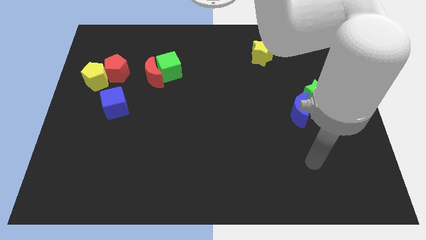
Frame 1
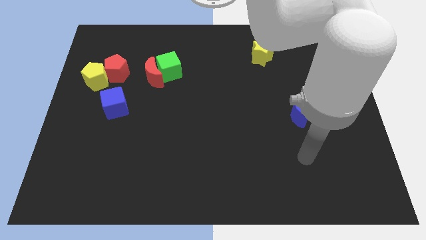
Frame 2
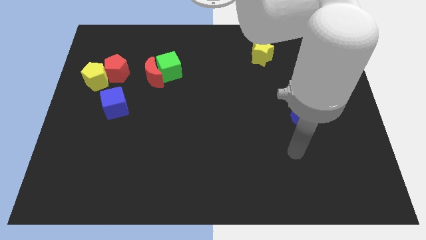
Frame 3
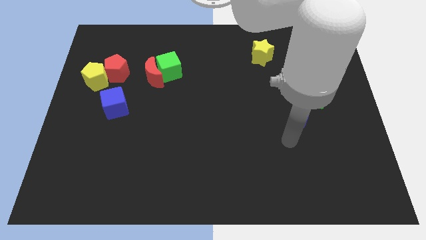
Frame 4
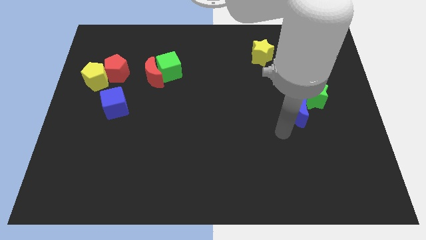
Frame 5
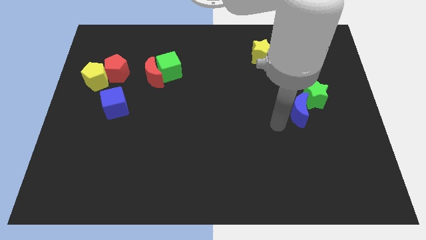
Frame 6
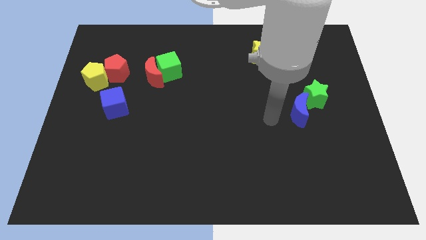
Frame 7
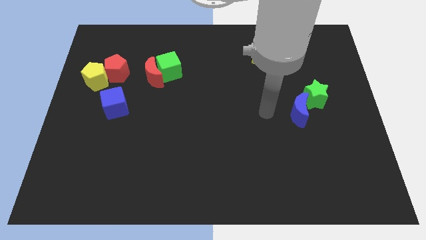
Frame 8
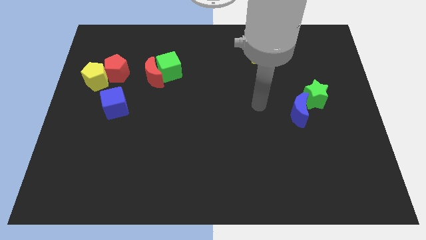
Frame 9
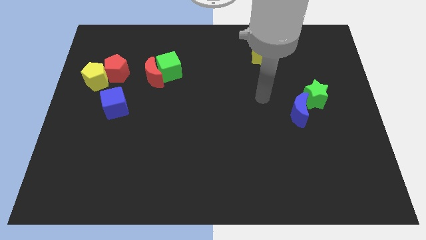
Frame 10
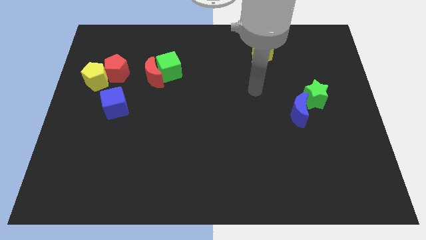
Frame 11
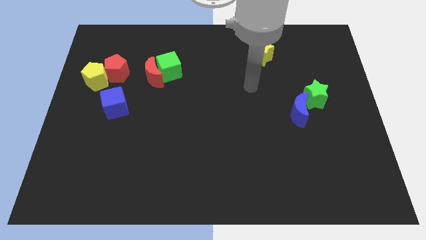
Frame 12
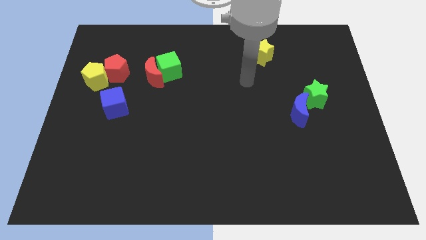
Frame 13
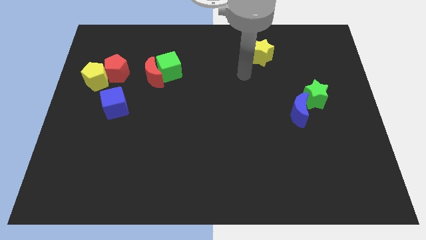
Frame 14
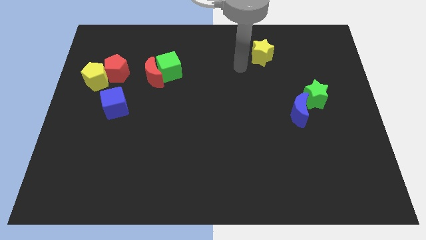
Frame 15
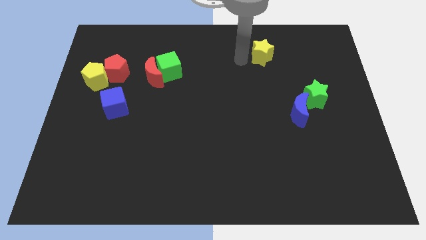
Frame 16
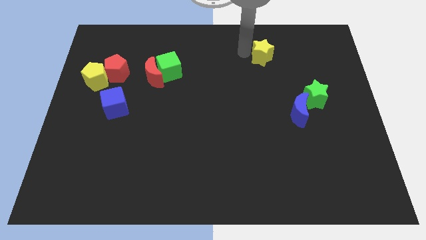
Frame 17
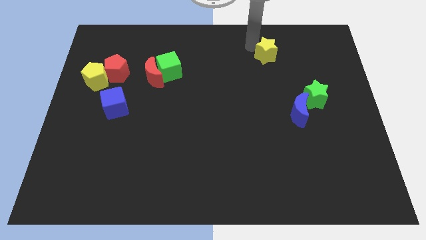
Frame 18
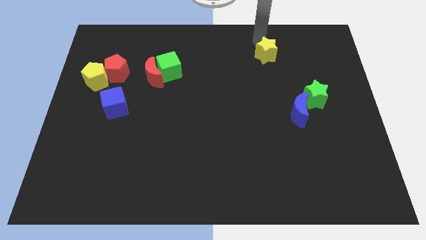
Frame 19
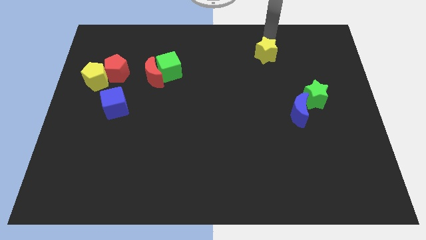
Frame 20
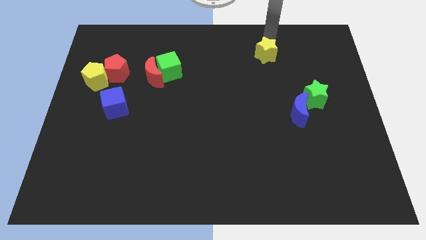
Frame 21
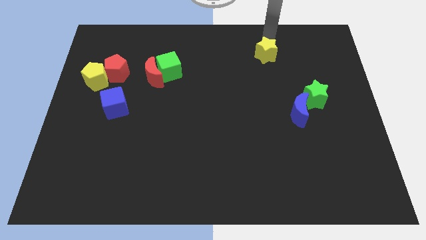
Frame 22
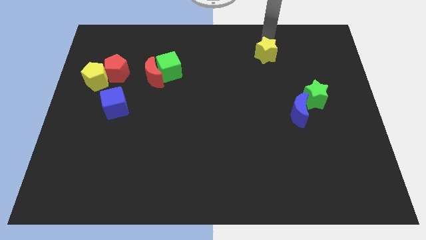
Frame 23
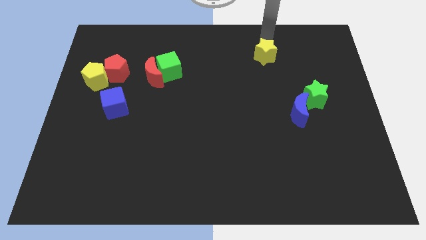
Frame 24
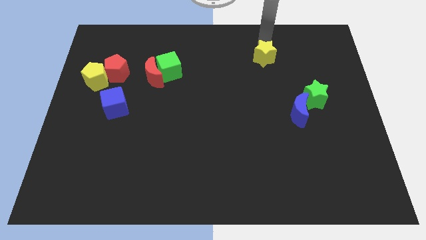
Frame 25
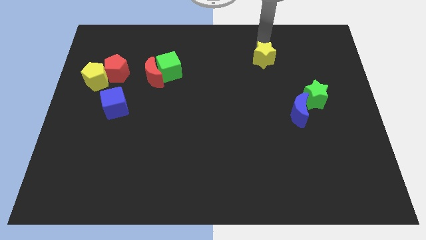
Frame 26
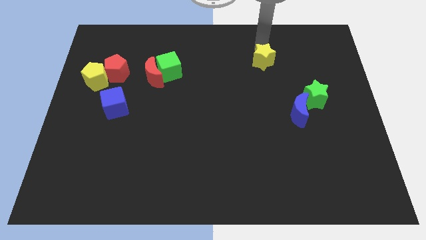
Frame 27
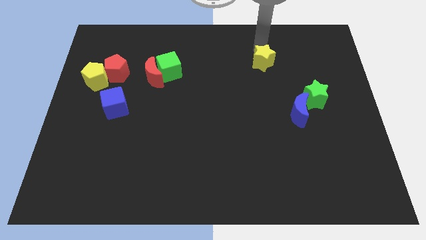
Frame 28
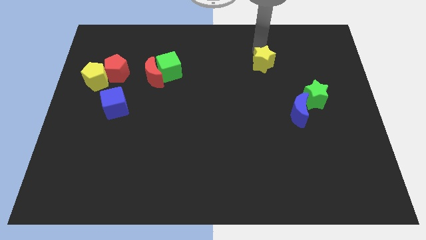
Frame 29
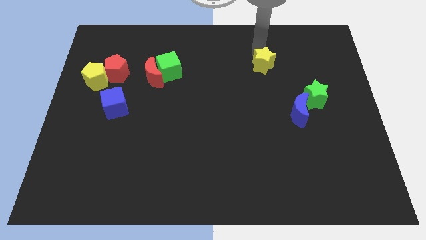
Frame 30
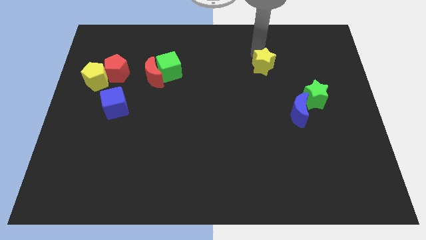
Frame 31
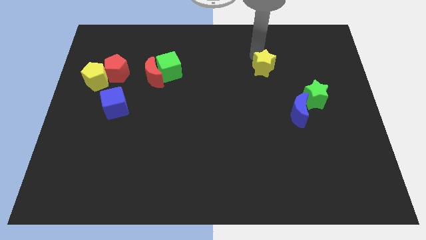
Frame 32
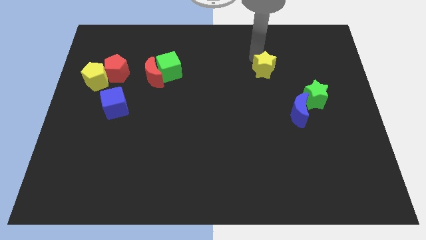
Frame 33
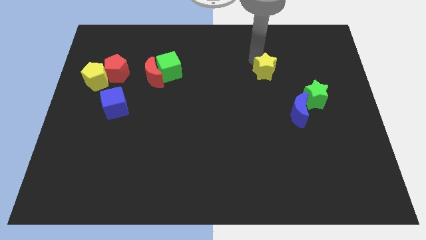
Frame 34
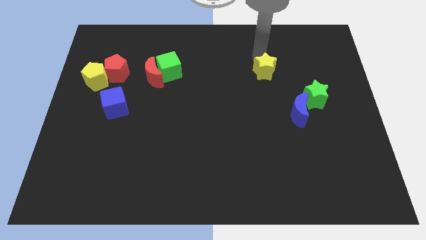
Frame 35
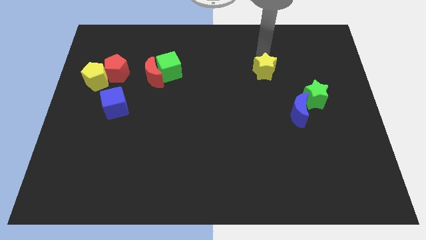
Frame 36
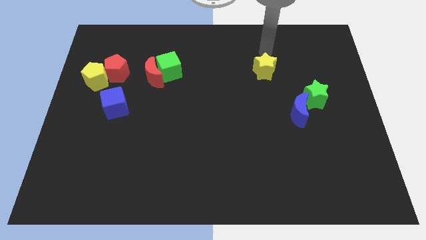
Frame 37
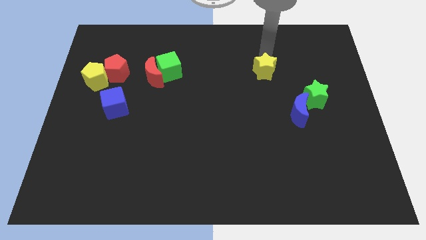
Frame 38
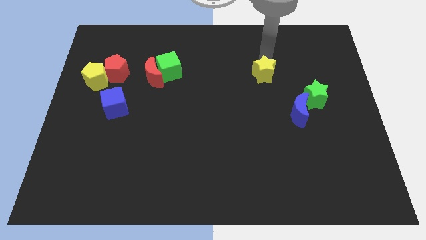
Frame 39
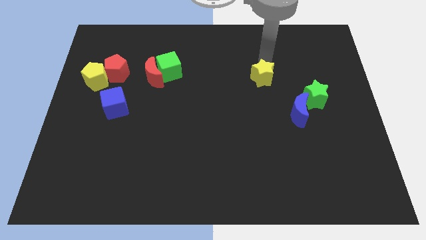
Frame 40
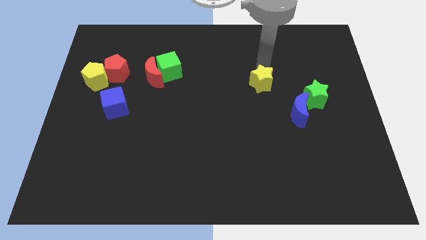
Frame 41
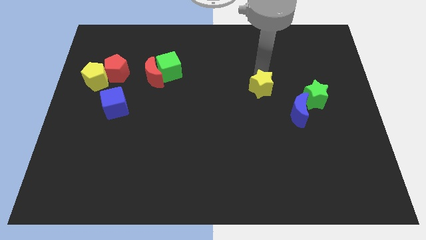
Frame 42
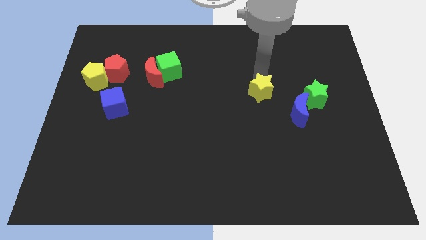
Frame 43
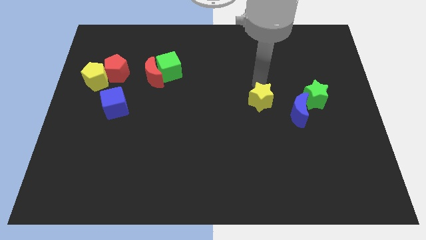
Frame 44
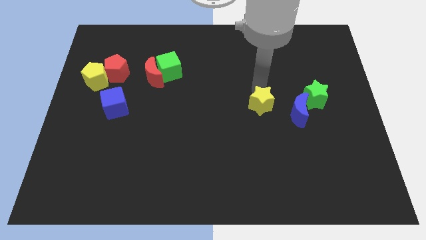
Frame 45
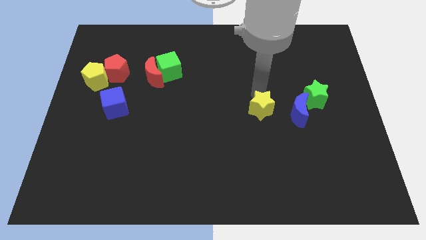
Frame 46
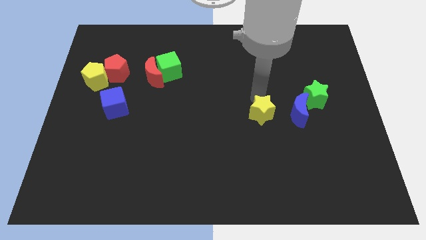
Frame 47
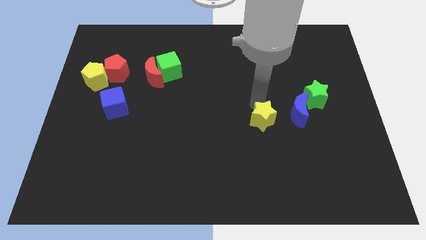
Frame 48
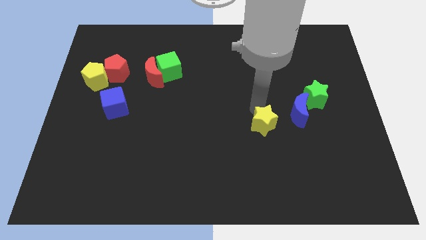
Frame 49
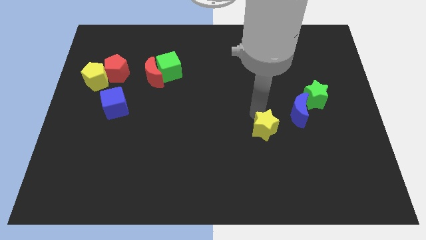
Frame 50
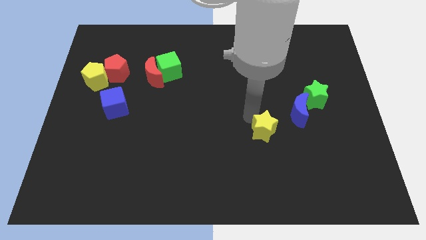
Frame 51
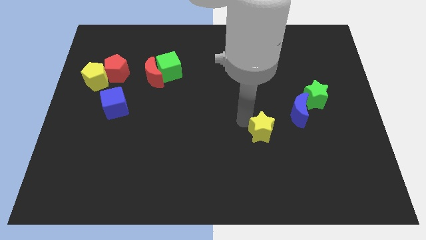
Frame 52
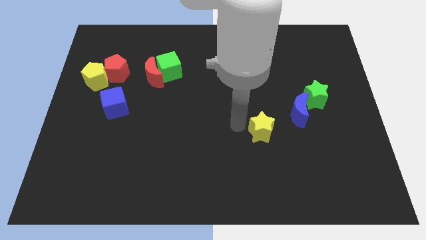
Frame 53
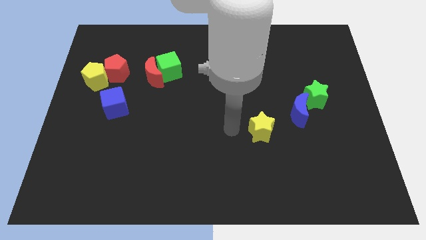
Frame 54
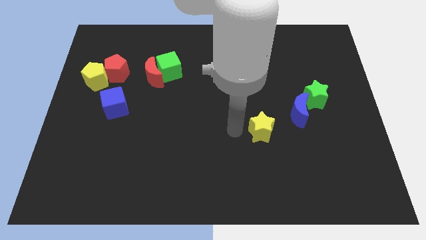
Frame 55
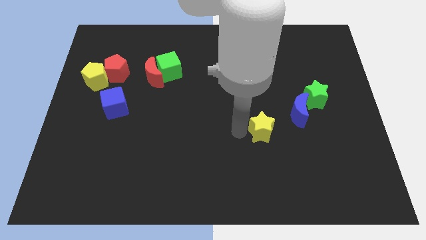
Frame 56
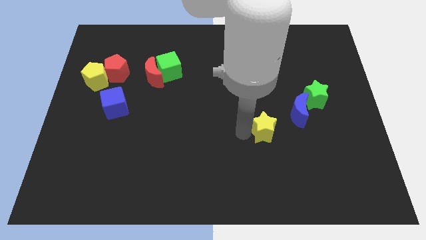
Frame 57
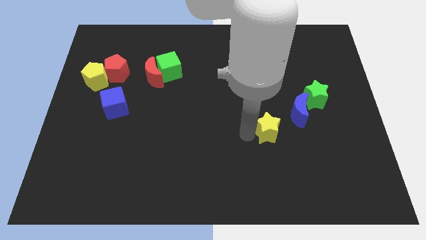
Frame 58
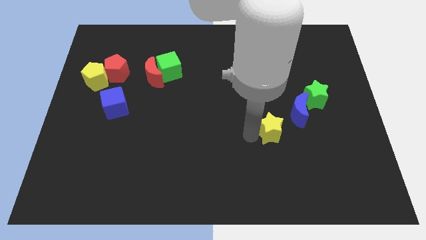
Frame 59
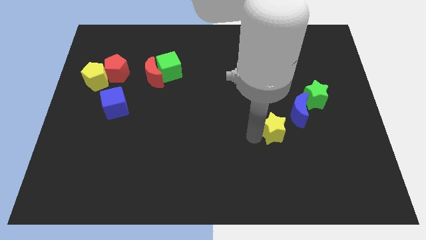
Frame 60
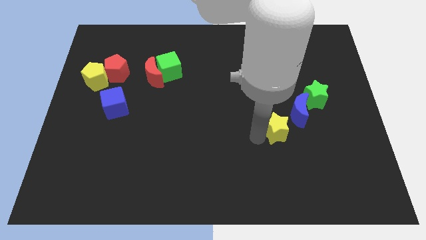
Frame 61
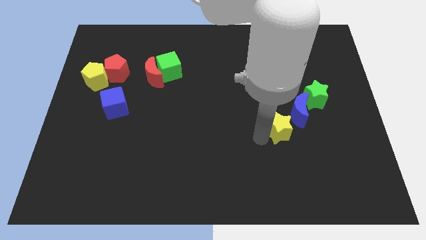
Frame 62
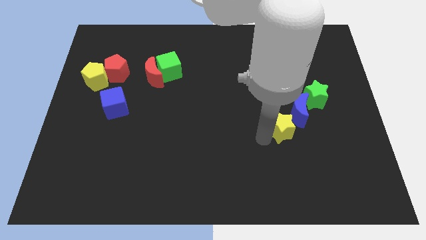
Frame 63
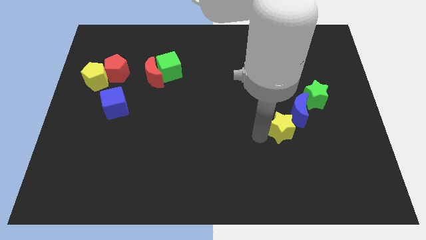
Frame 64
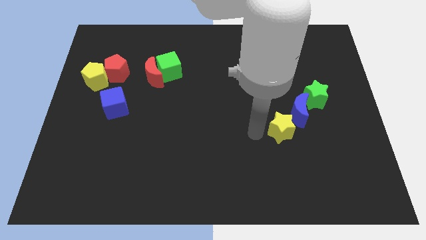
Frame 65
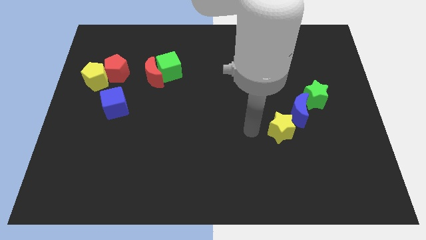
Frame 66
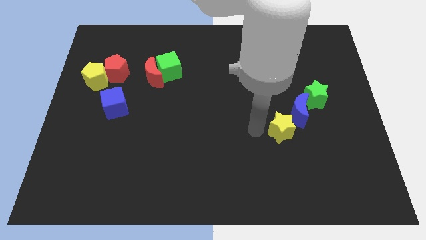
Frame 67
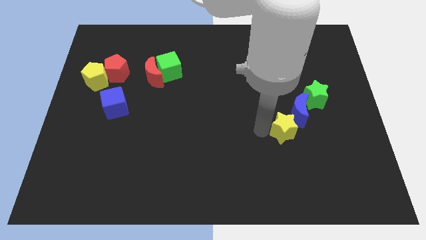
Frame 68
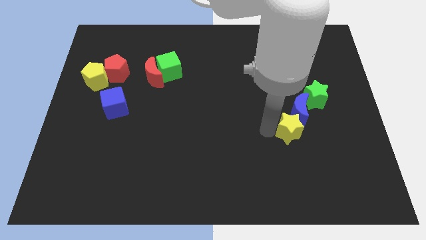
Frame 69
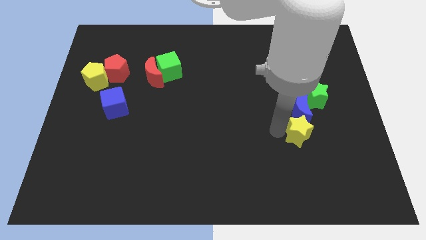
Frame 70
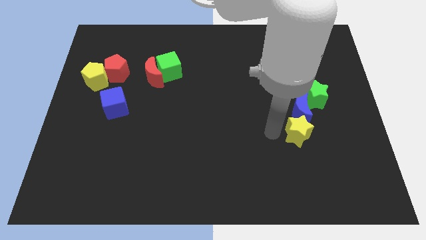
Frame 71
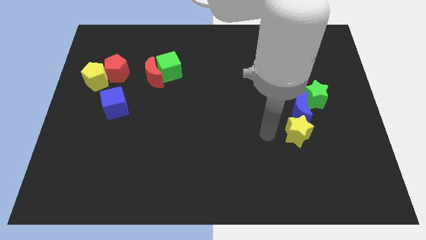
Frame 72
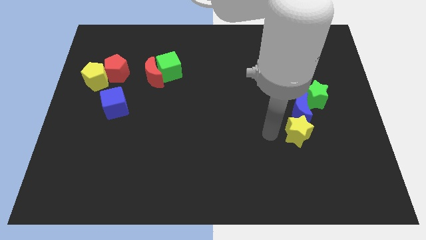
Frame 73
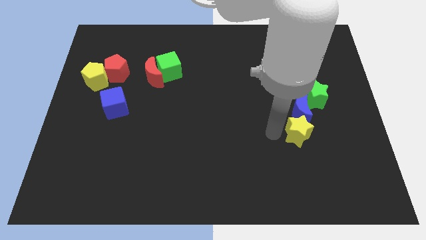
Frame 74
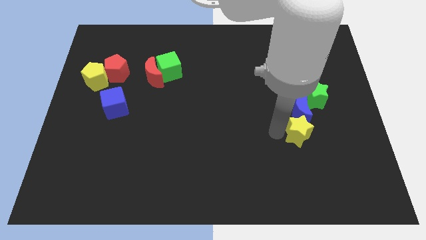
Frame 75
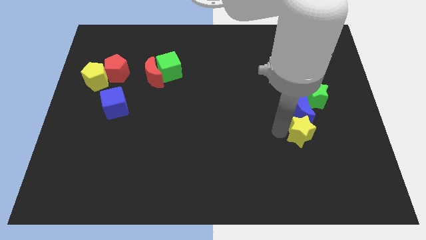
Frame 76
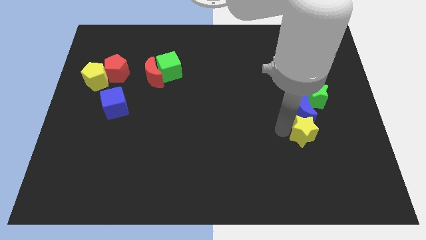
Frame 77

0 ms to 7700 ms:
move the yellow star to the bottom of the green star
